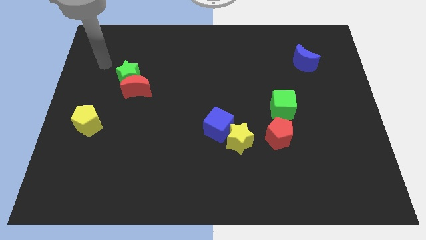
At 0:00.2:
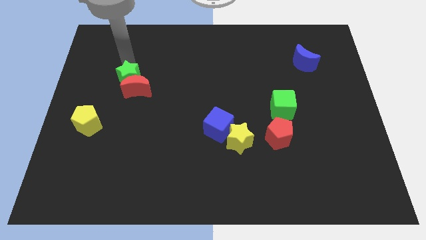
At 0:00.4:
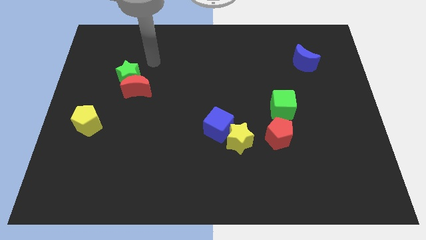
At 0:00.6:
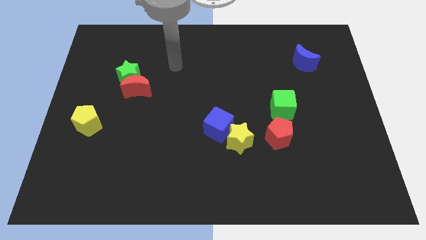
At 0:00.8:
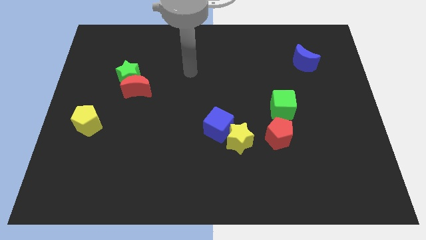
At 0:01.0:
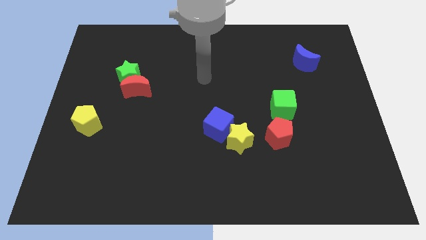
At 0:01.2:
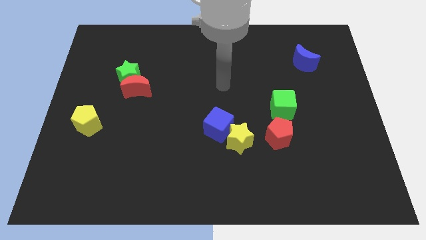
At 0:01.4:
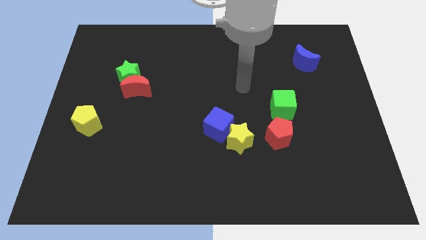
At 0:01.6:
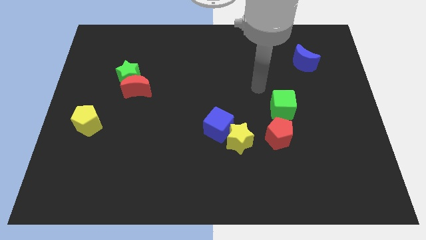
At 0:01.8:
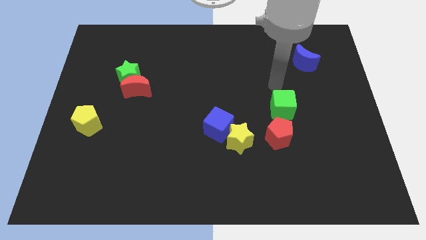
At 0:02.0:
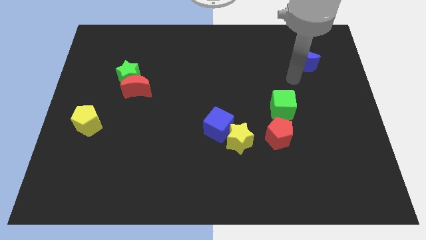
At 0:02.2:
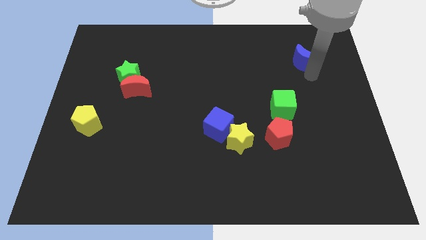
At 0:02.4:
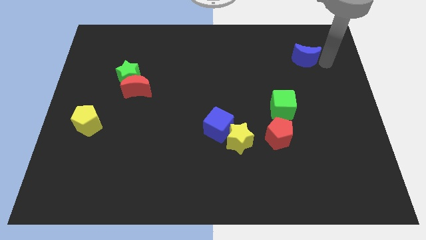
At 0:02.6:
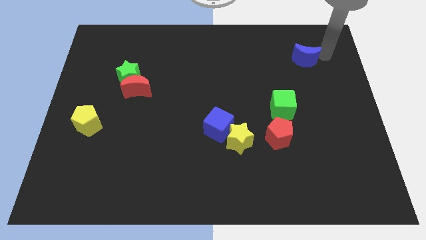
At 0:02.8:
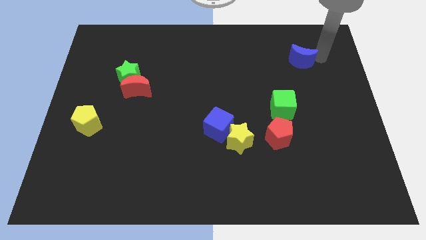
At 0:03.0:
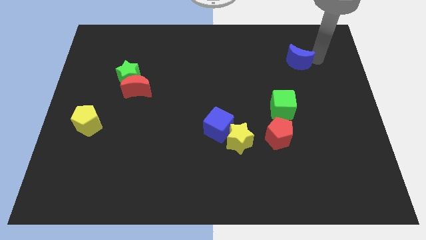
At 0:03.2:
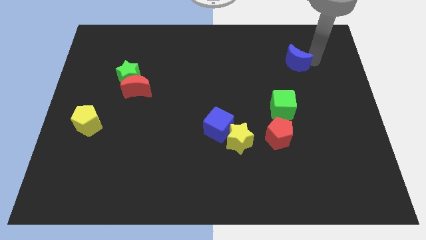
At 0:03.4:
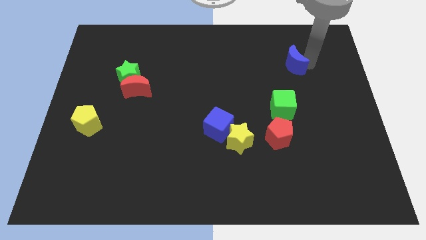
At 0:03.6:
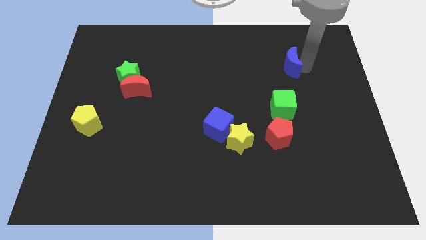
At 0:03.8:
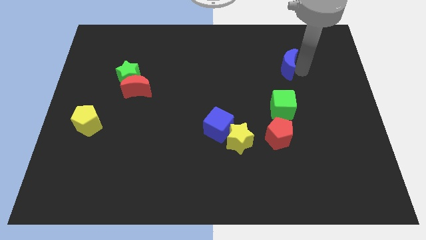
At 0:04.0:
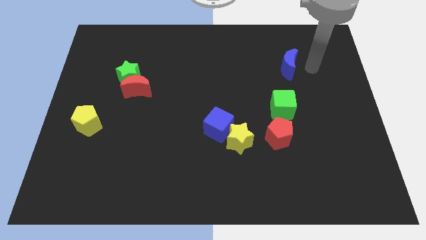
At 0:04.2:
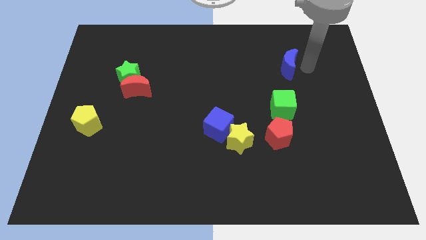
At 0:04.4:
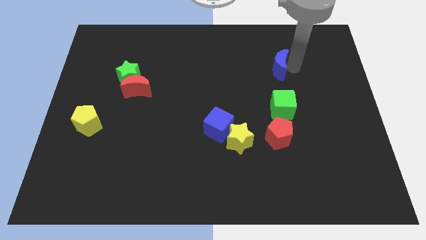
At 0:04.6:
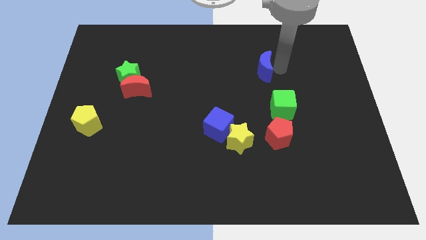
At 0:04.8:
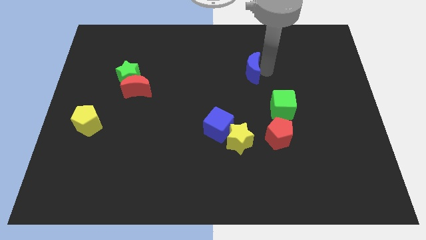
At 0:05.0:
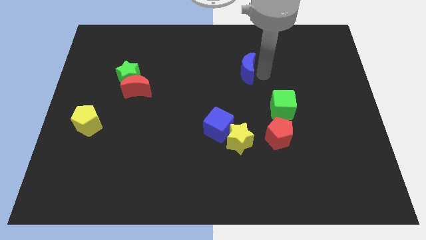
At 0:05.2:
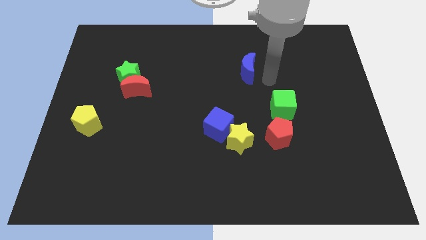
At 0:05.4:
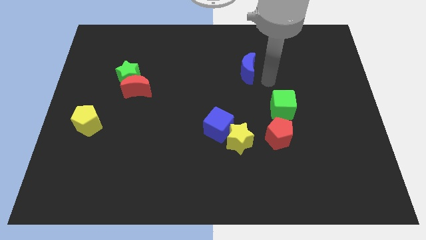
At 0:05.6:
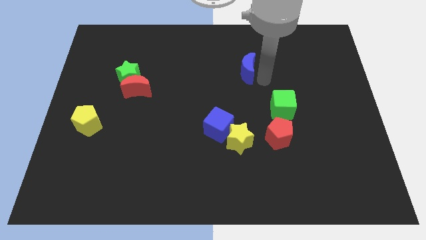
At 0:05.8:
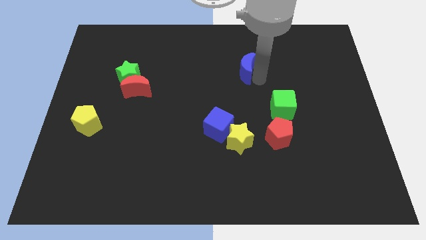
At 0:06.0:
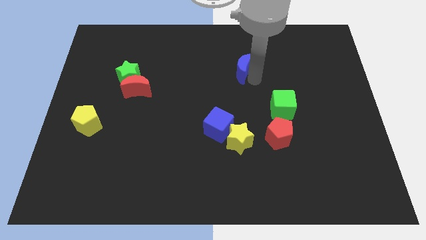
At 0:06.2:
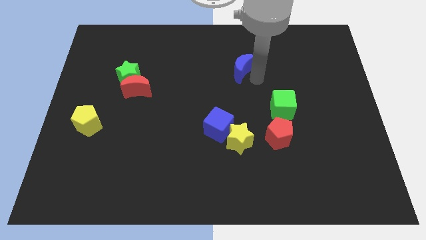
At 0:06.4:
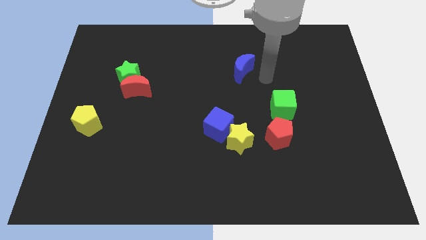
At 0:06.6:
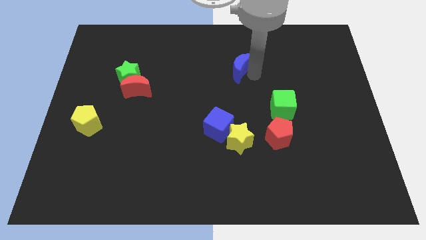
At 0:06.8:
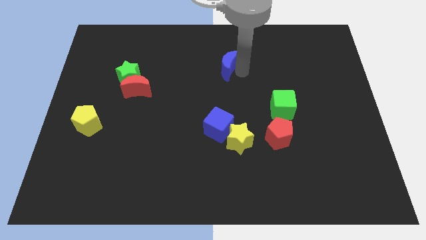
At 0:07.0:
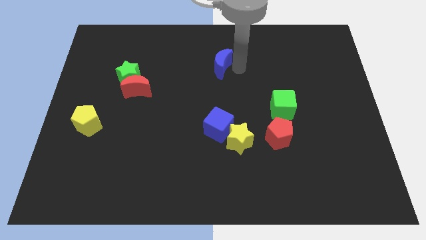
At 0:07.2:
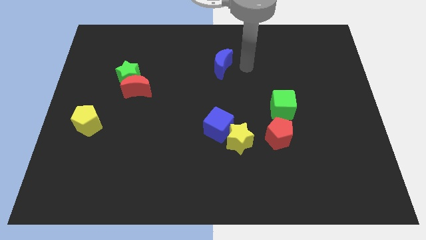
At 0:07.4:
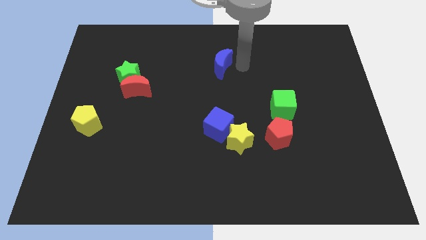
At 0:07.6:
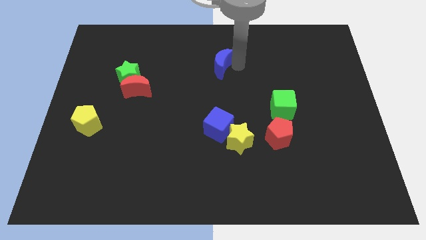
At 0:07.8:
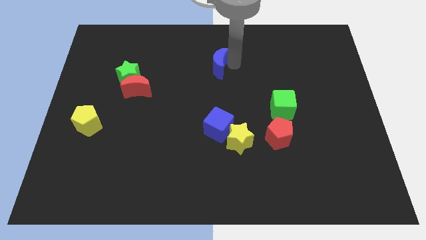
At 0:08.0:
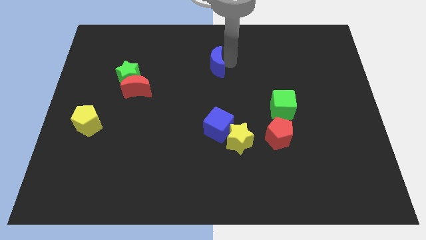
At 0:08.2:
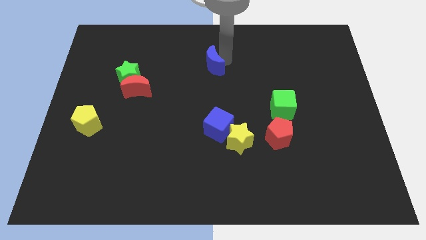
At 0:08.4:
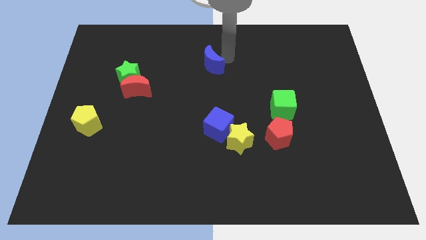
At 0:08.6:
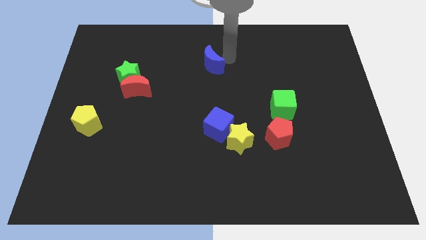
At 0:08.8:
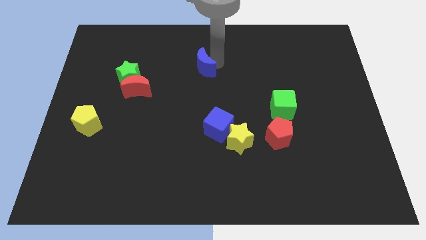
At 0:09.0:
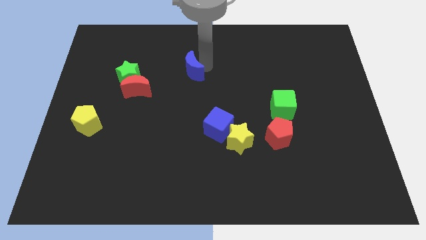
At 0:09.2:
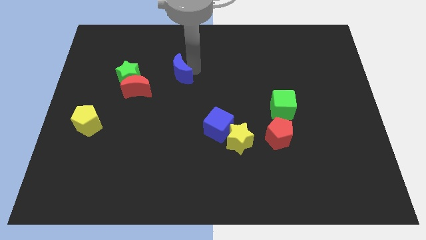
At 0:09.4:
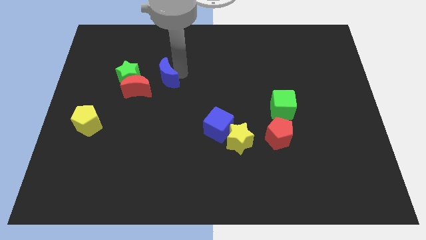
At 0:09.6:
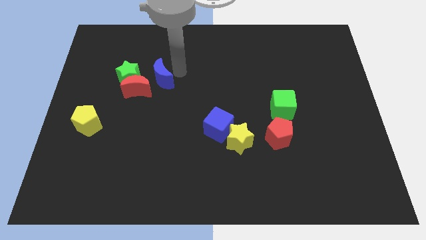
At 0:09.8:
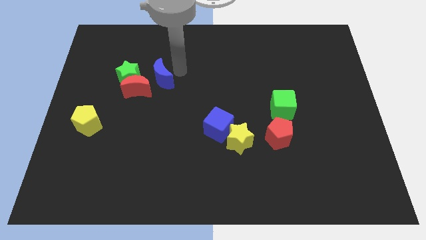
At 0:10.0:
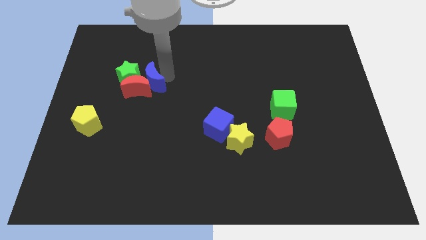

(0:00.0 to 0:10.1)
slide the blue moon to the red moon

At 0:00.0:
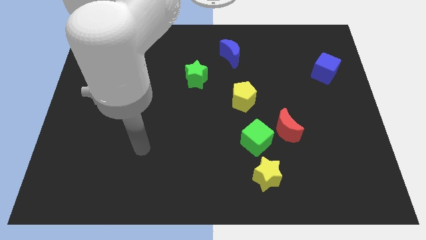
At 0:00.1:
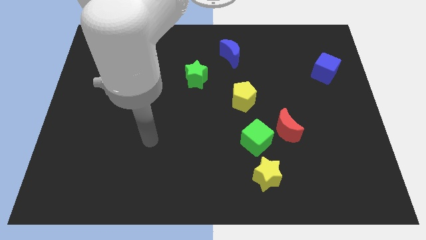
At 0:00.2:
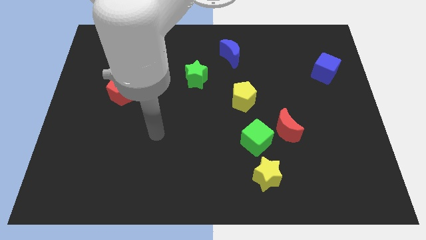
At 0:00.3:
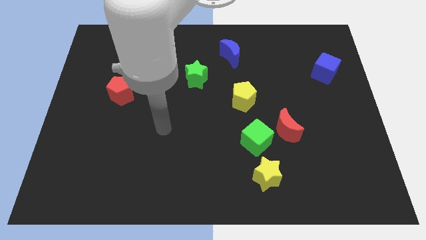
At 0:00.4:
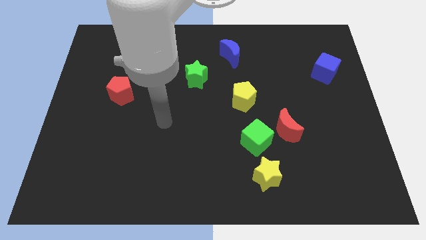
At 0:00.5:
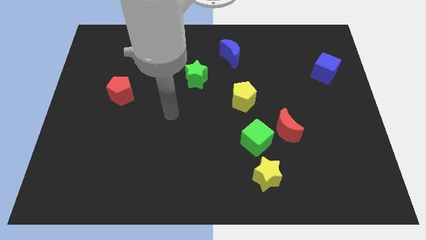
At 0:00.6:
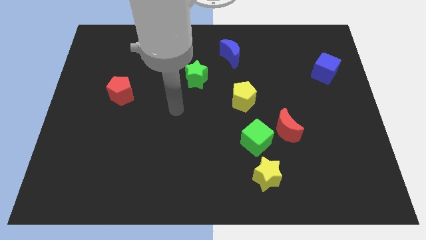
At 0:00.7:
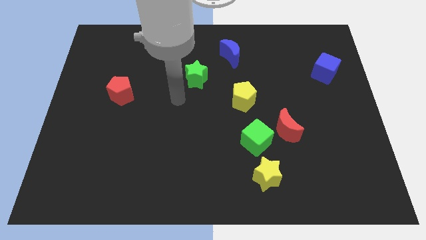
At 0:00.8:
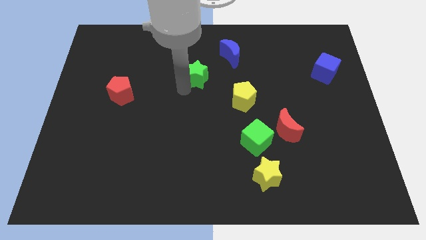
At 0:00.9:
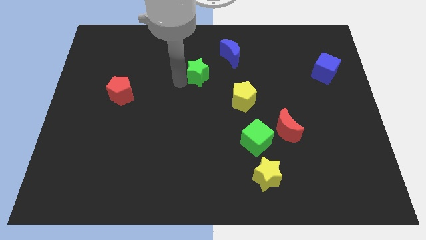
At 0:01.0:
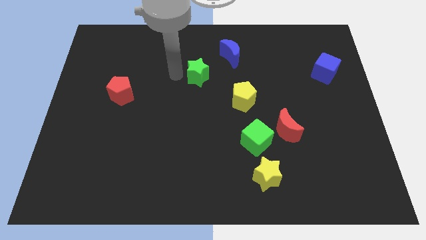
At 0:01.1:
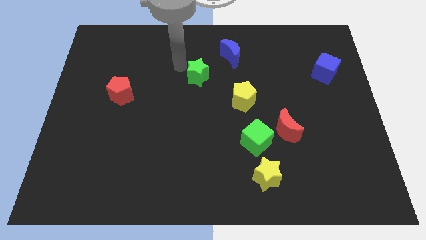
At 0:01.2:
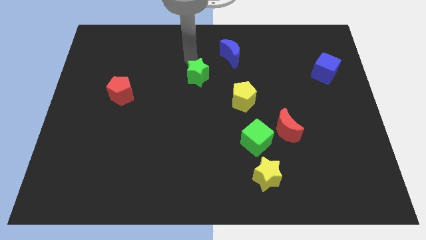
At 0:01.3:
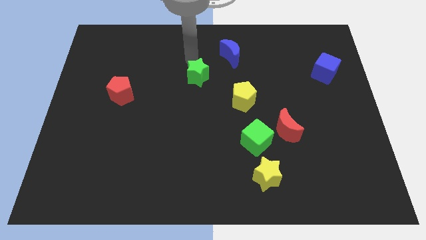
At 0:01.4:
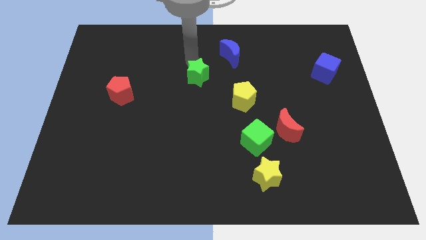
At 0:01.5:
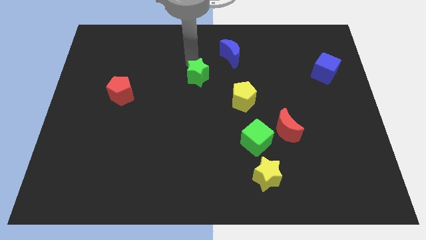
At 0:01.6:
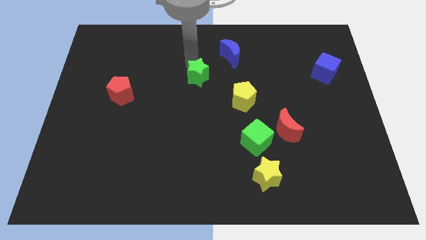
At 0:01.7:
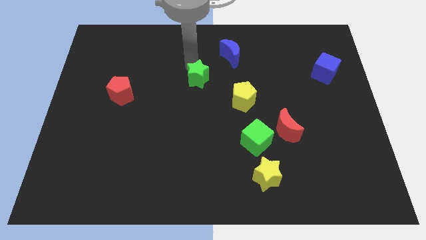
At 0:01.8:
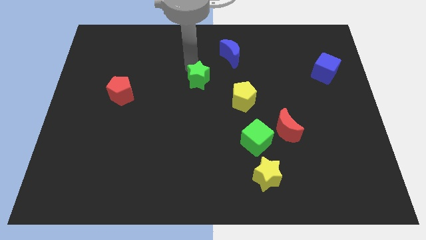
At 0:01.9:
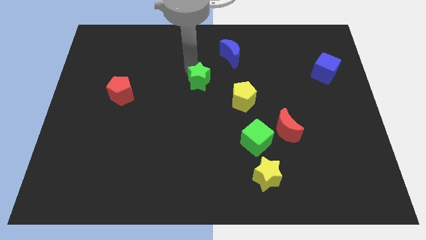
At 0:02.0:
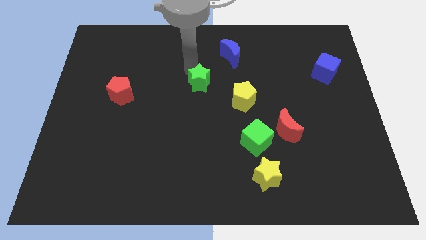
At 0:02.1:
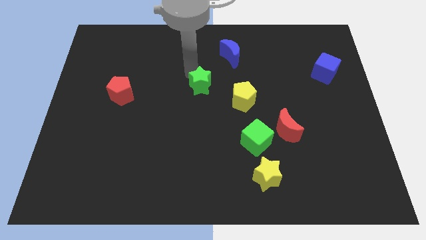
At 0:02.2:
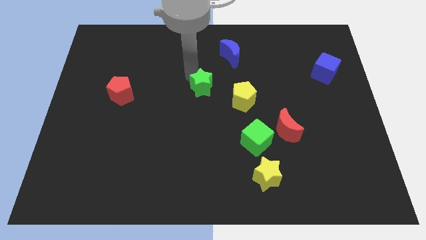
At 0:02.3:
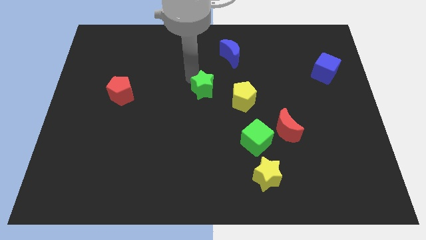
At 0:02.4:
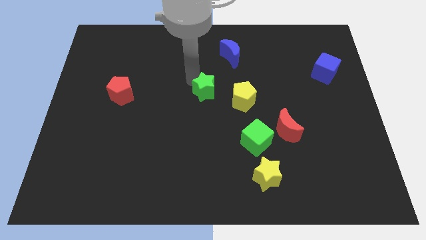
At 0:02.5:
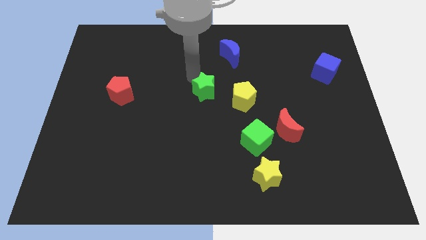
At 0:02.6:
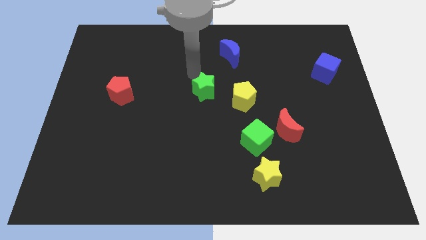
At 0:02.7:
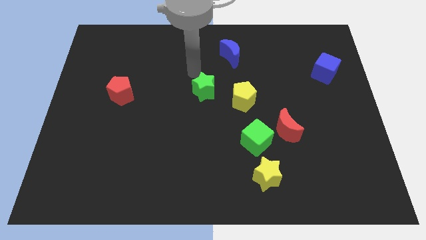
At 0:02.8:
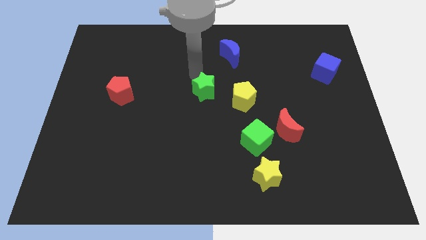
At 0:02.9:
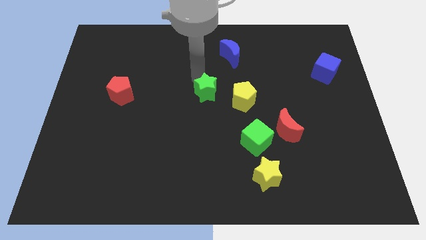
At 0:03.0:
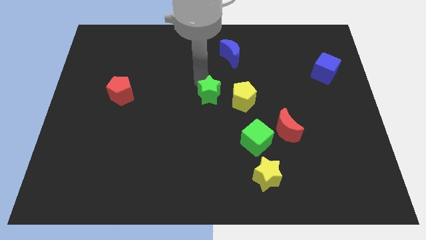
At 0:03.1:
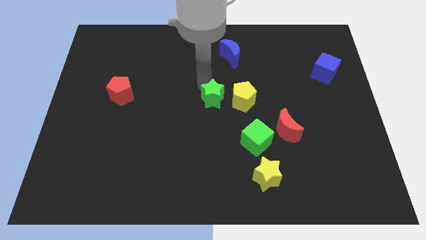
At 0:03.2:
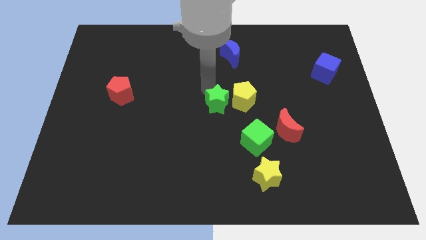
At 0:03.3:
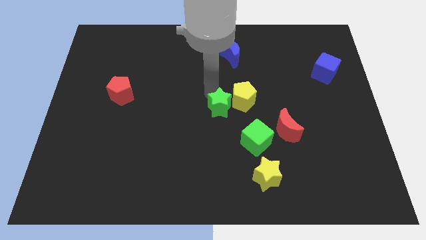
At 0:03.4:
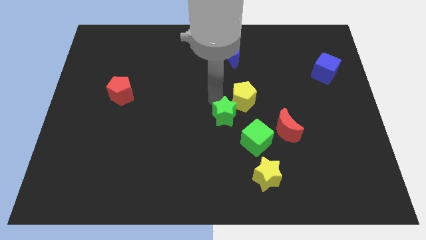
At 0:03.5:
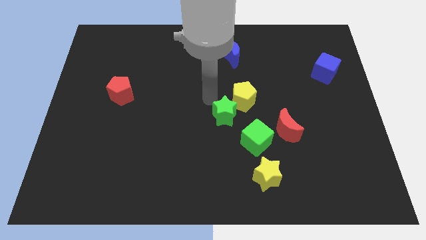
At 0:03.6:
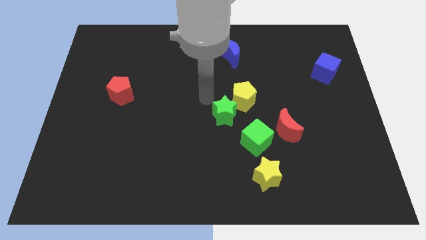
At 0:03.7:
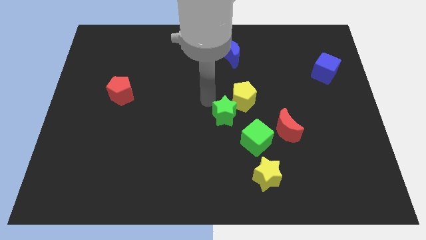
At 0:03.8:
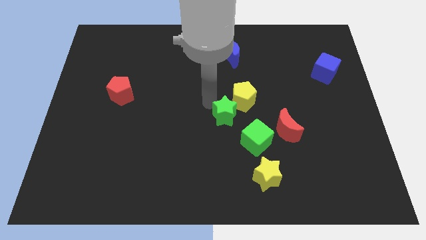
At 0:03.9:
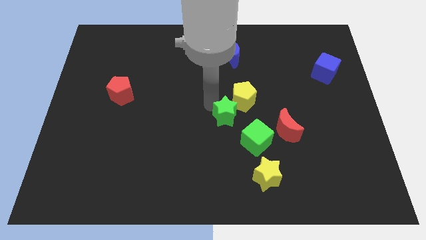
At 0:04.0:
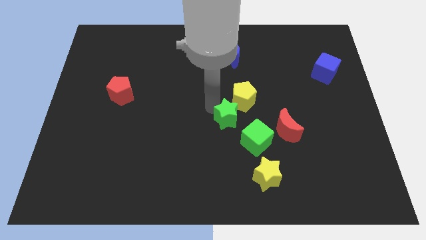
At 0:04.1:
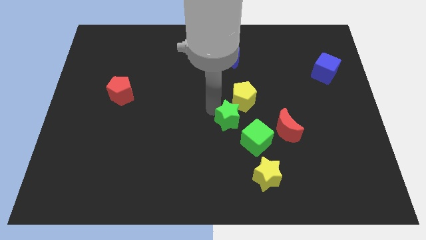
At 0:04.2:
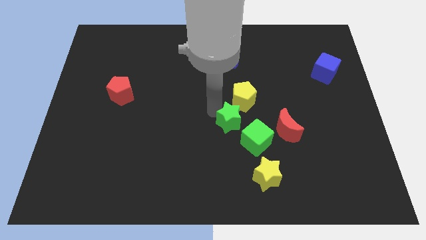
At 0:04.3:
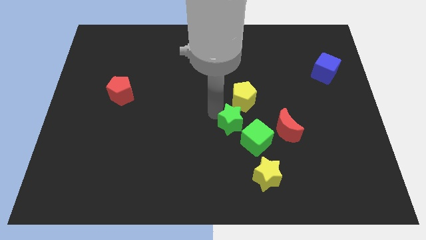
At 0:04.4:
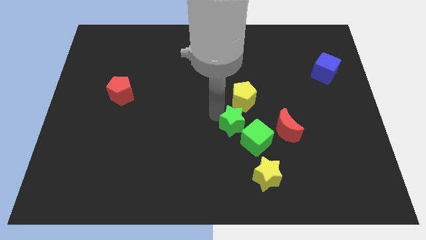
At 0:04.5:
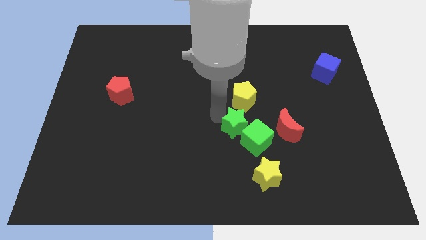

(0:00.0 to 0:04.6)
push the green star next to the green cube
